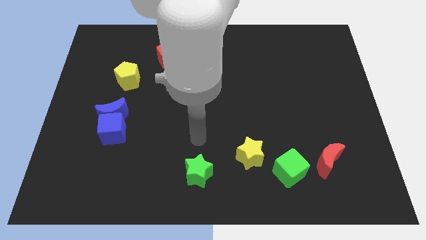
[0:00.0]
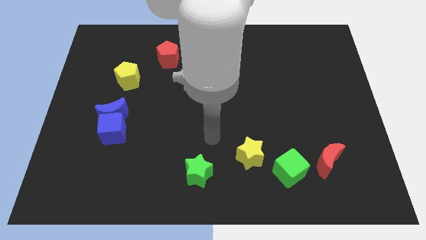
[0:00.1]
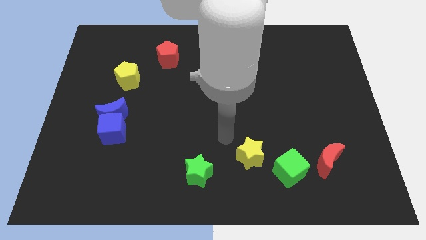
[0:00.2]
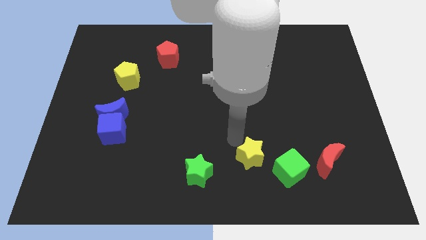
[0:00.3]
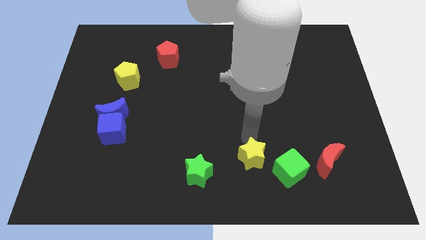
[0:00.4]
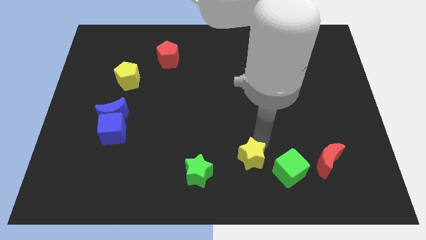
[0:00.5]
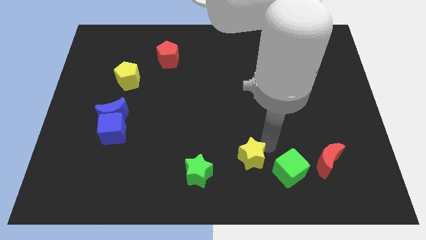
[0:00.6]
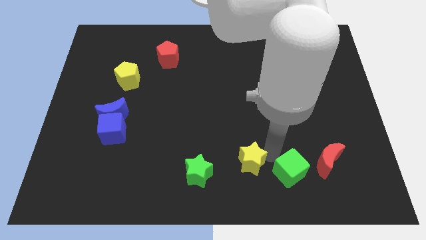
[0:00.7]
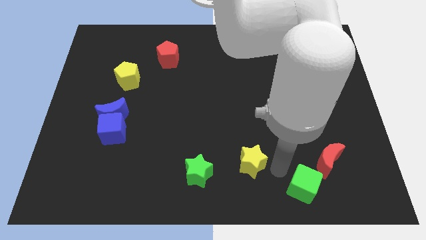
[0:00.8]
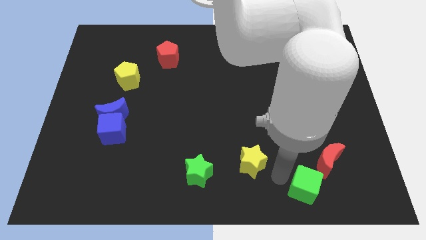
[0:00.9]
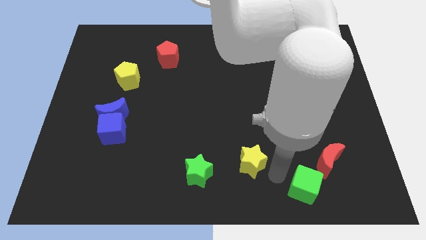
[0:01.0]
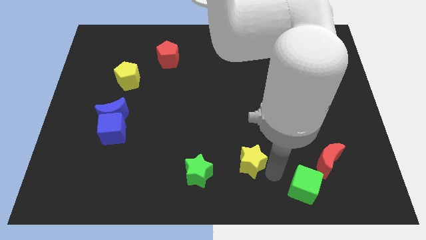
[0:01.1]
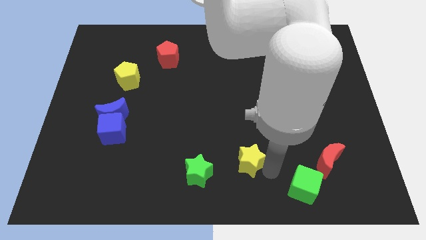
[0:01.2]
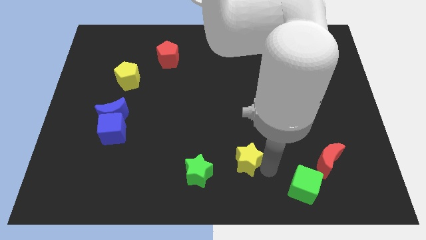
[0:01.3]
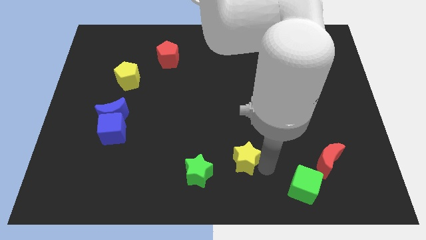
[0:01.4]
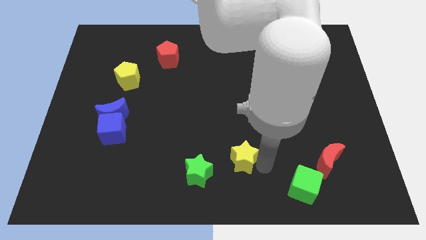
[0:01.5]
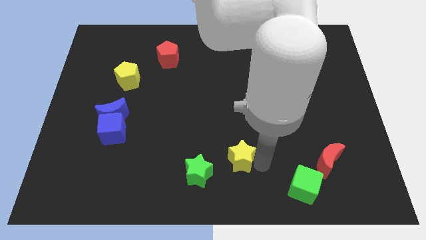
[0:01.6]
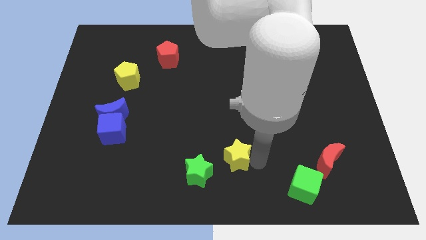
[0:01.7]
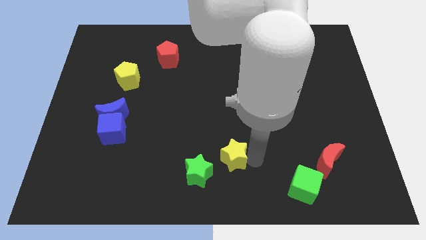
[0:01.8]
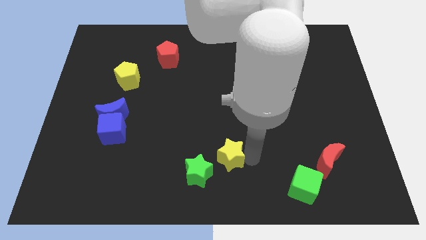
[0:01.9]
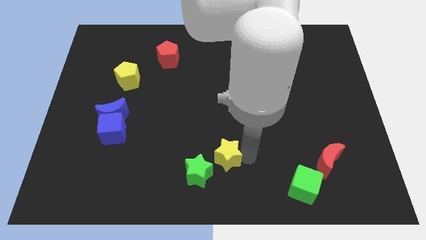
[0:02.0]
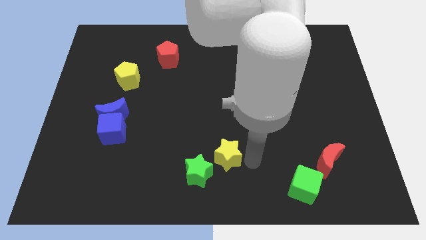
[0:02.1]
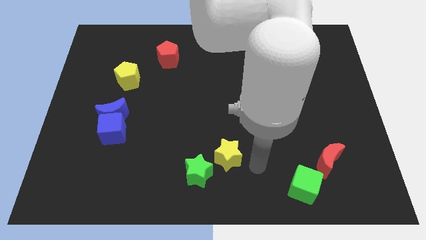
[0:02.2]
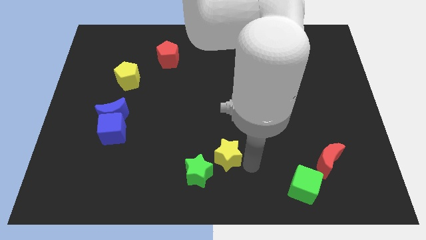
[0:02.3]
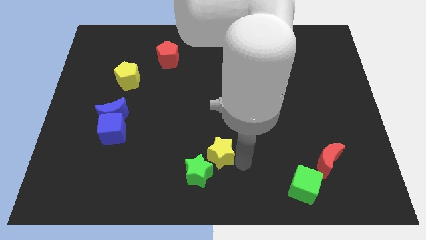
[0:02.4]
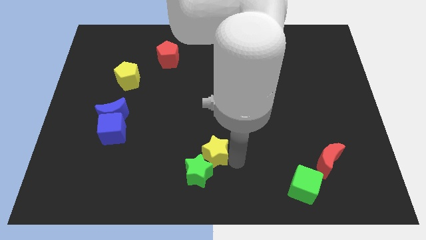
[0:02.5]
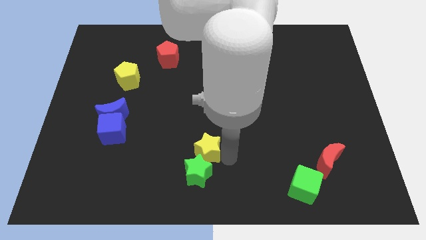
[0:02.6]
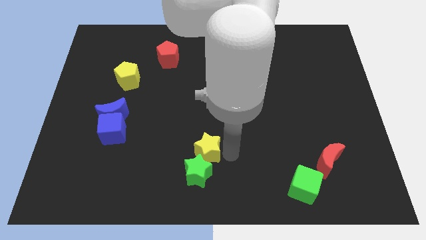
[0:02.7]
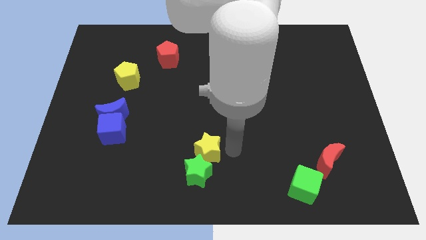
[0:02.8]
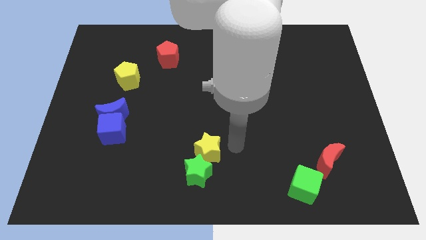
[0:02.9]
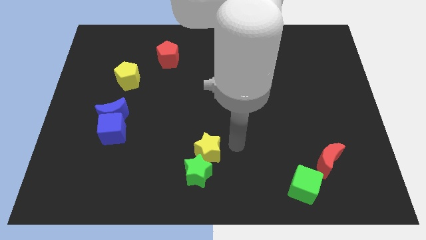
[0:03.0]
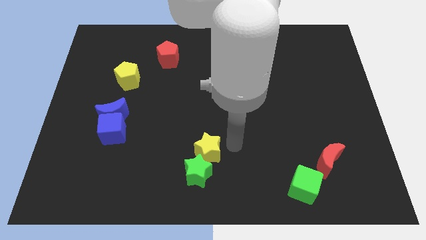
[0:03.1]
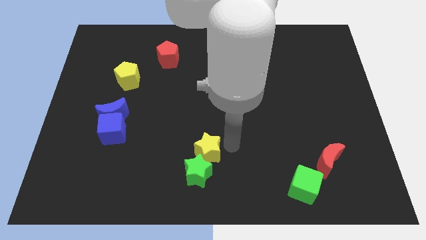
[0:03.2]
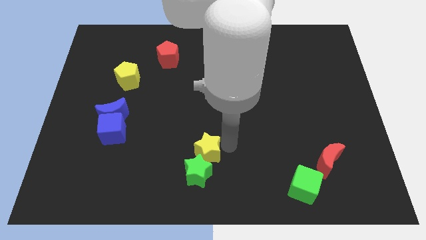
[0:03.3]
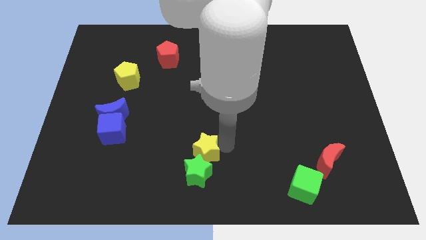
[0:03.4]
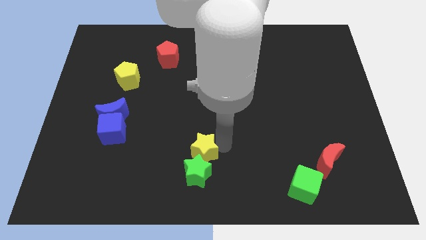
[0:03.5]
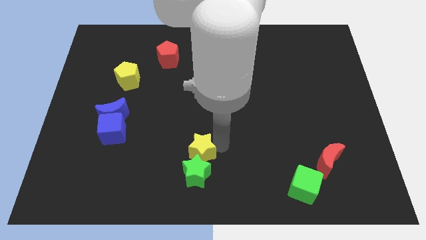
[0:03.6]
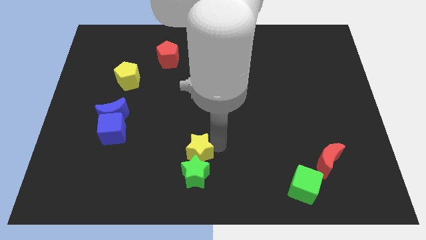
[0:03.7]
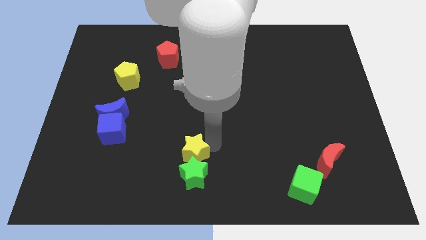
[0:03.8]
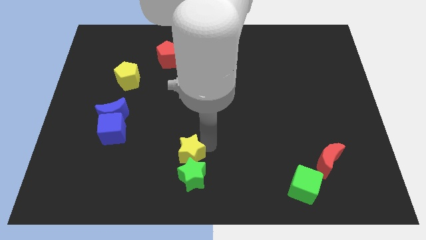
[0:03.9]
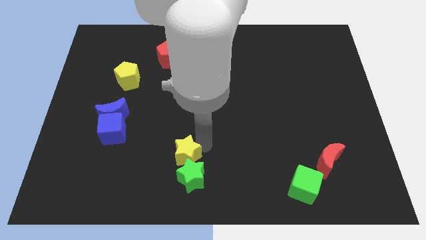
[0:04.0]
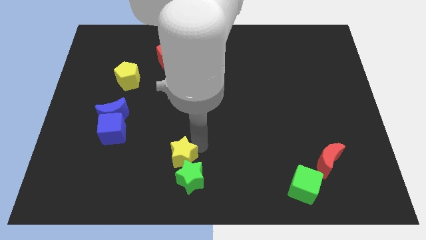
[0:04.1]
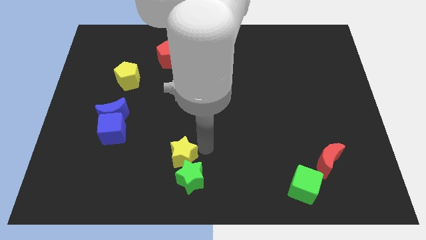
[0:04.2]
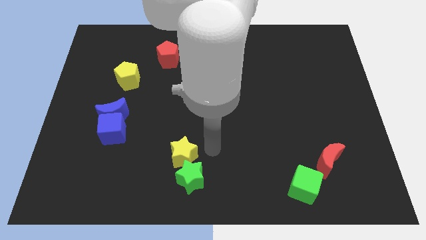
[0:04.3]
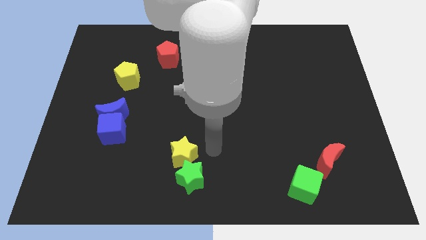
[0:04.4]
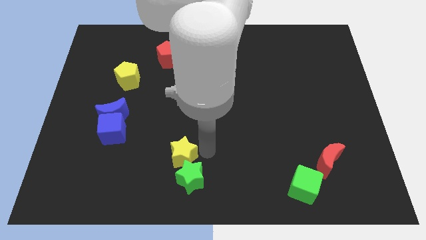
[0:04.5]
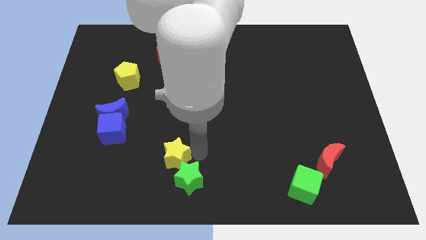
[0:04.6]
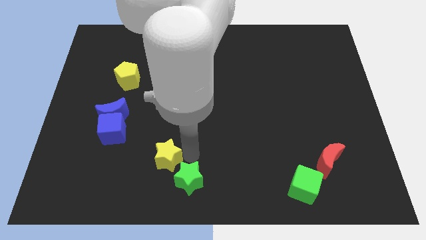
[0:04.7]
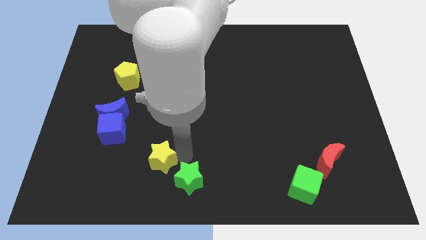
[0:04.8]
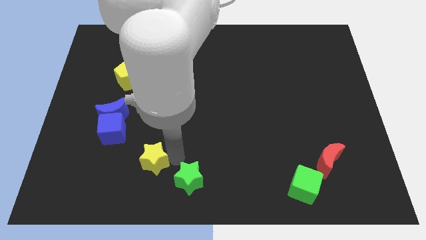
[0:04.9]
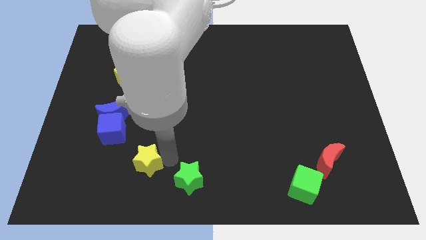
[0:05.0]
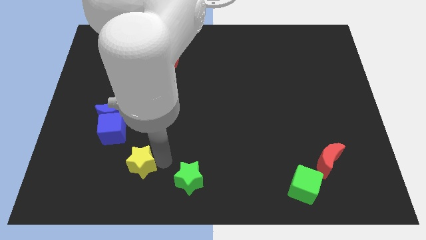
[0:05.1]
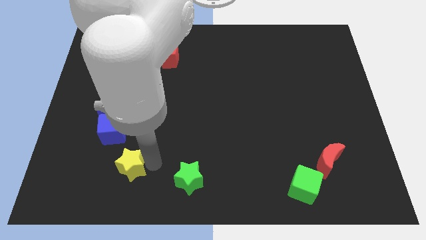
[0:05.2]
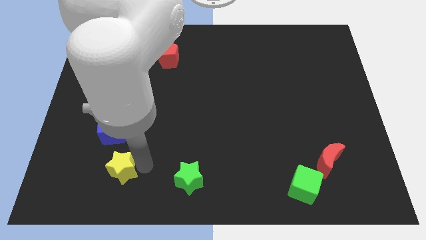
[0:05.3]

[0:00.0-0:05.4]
put the yellow star to the bottom side of the blue cube

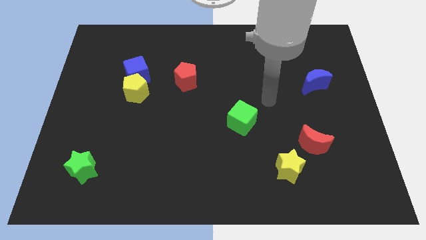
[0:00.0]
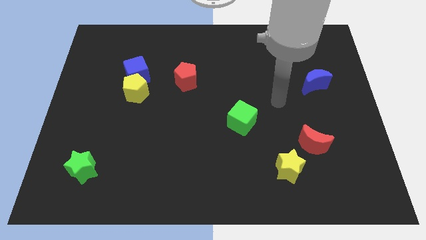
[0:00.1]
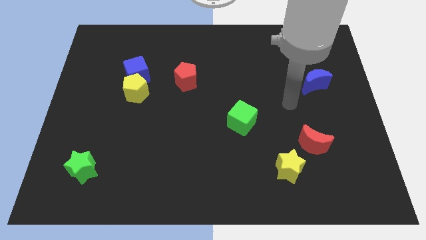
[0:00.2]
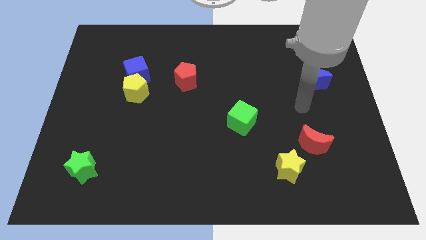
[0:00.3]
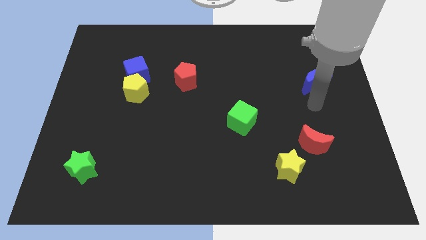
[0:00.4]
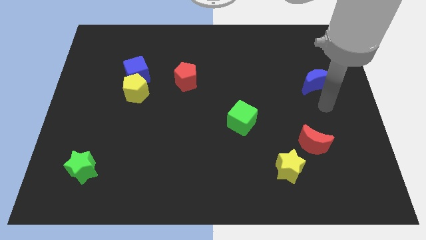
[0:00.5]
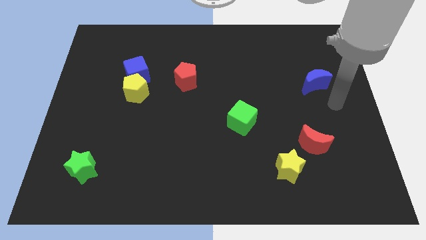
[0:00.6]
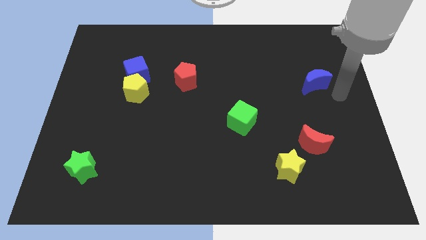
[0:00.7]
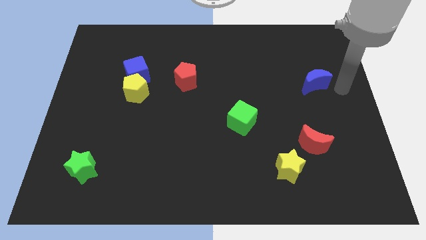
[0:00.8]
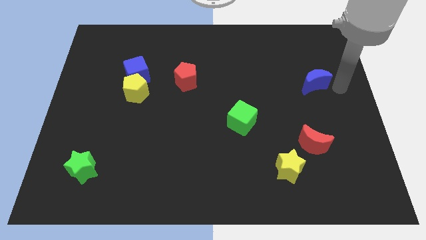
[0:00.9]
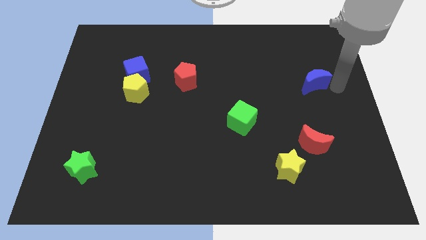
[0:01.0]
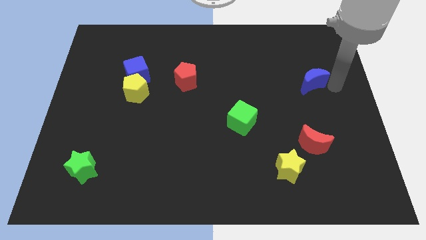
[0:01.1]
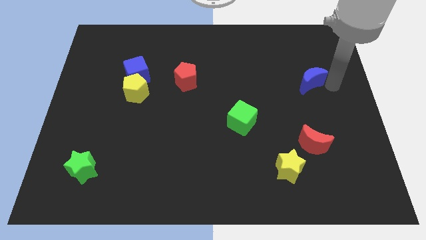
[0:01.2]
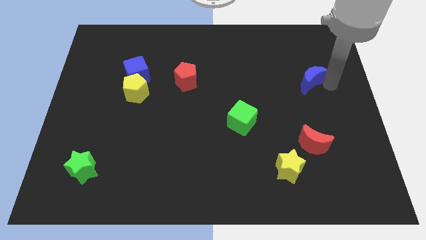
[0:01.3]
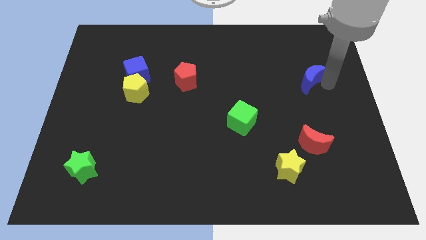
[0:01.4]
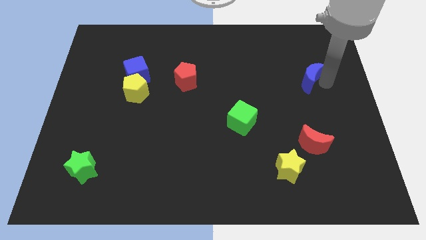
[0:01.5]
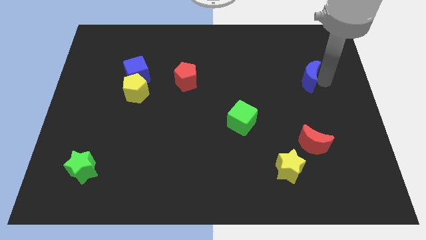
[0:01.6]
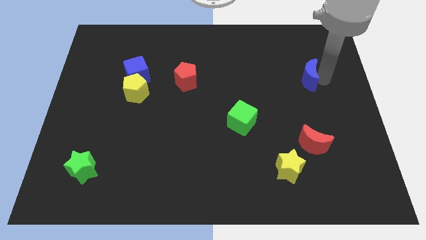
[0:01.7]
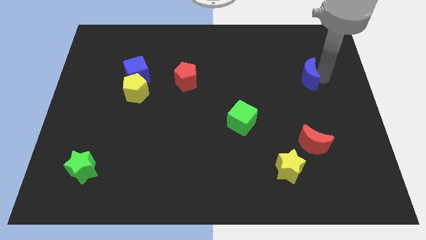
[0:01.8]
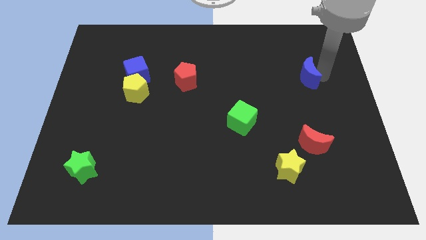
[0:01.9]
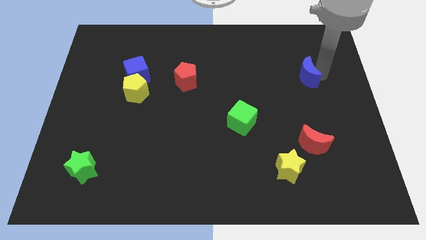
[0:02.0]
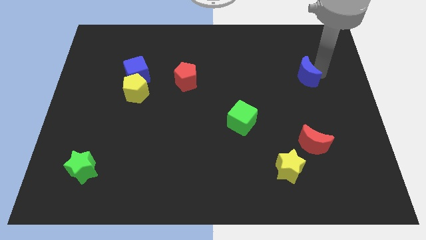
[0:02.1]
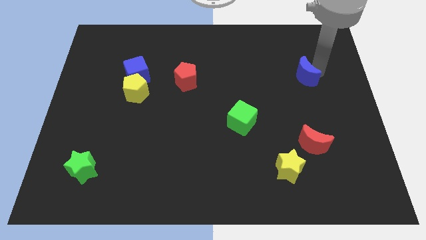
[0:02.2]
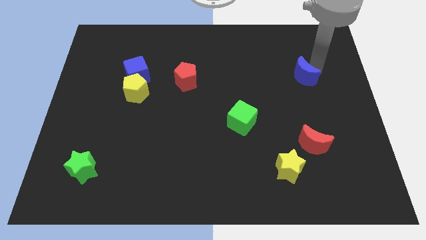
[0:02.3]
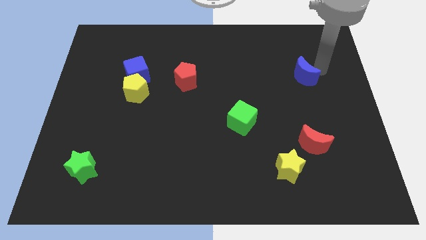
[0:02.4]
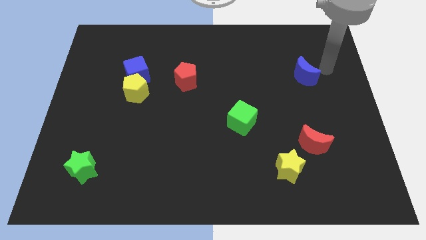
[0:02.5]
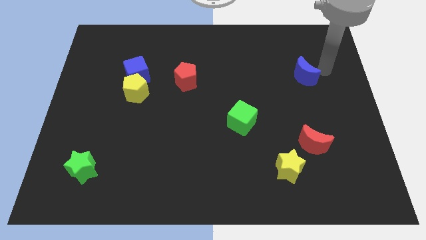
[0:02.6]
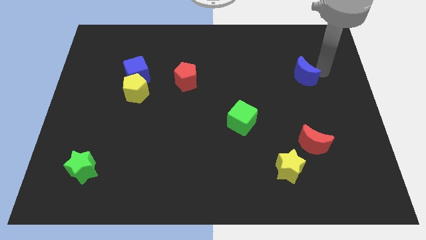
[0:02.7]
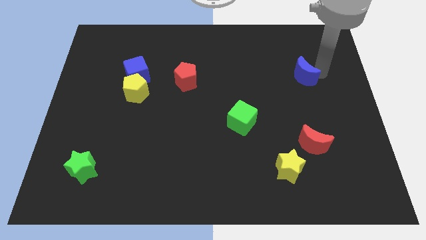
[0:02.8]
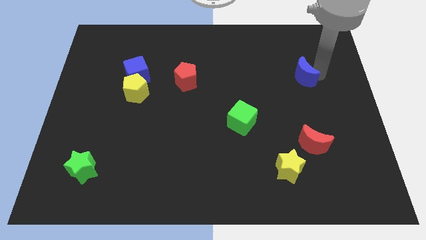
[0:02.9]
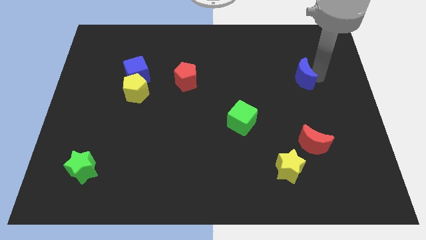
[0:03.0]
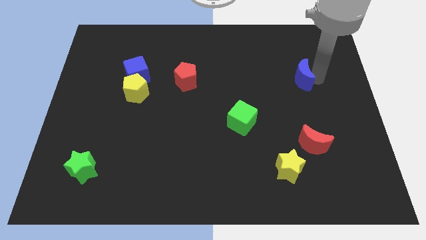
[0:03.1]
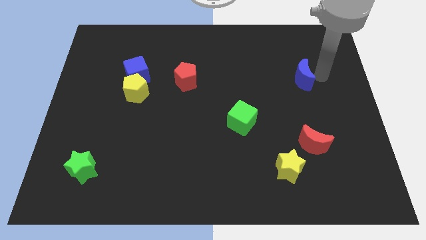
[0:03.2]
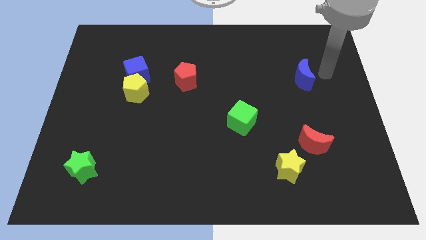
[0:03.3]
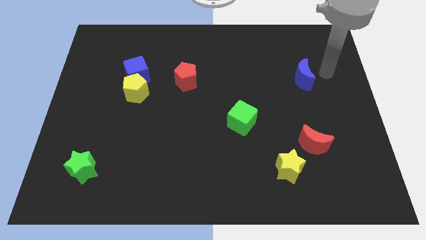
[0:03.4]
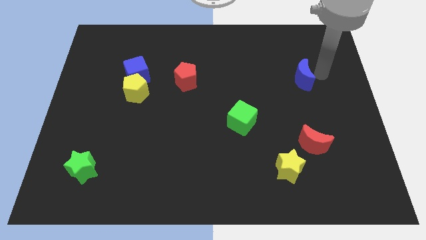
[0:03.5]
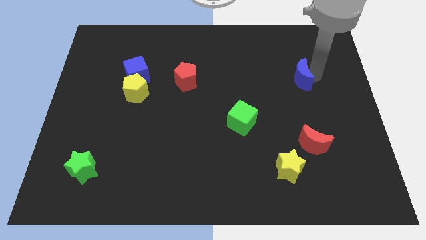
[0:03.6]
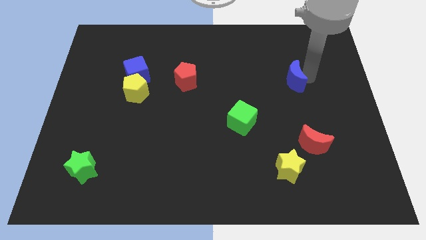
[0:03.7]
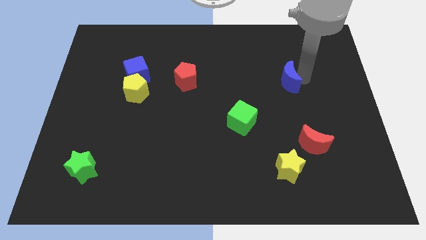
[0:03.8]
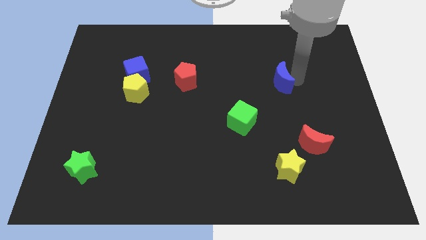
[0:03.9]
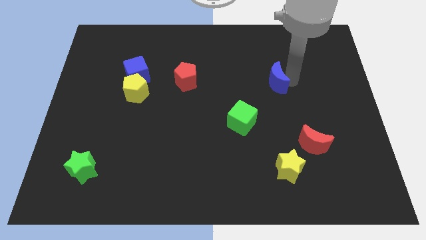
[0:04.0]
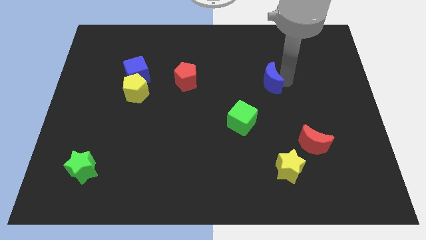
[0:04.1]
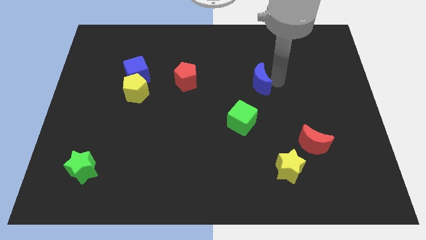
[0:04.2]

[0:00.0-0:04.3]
slide the blue moon to the top of the green cube
